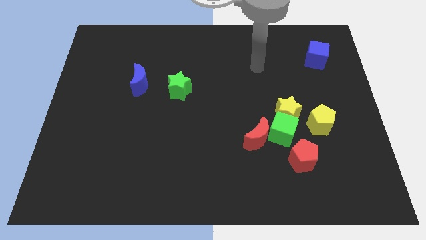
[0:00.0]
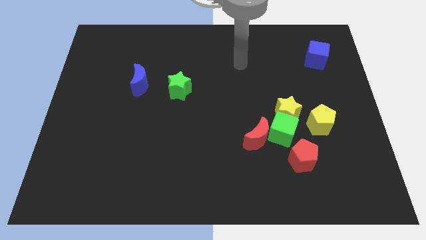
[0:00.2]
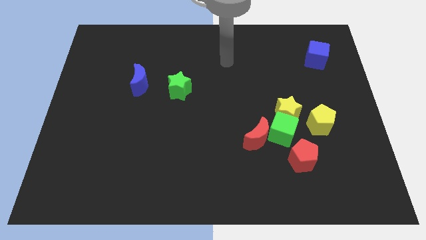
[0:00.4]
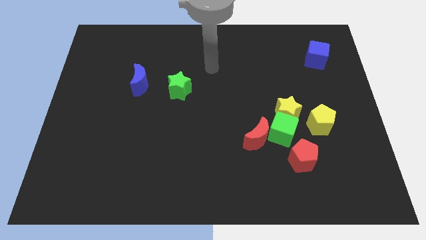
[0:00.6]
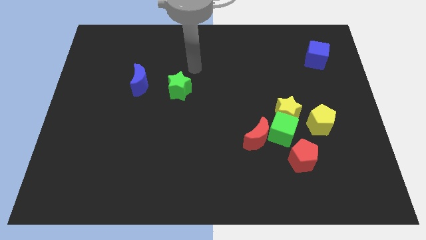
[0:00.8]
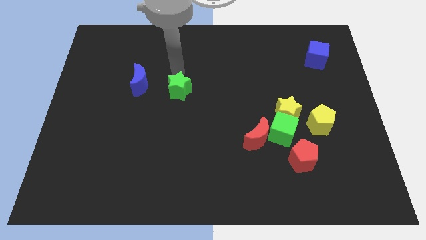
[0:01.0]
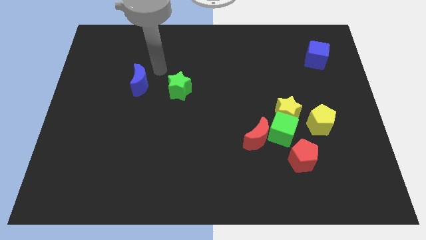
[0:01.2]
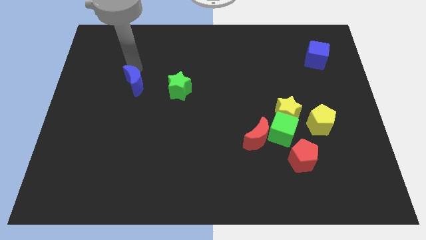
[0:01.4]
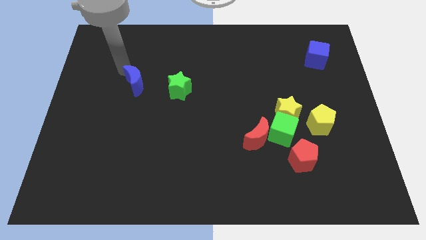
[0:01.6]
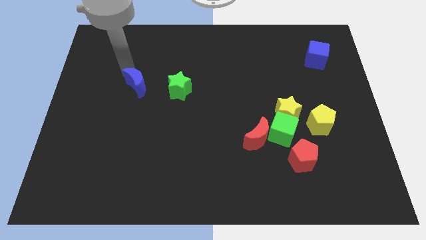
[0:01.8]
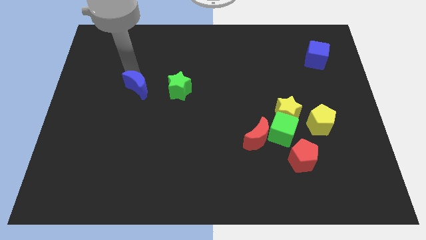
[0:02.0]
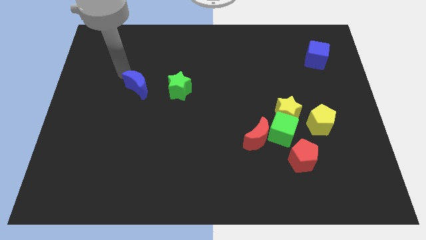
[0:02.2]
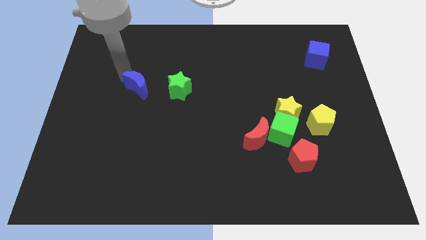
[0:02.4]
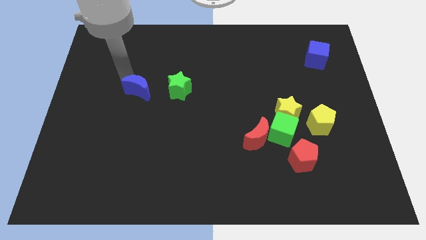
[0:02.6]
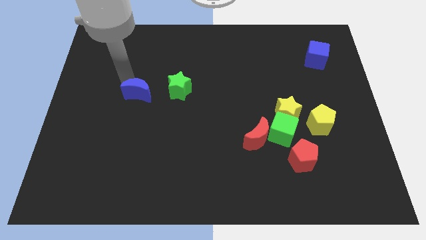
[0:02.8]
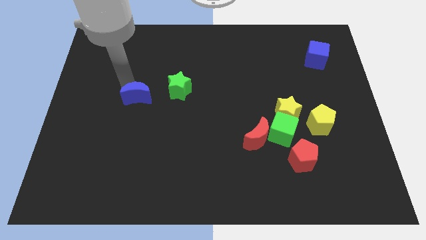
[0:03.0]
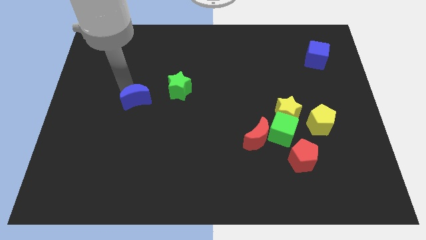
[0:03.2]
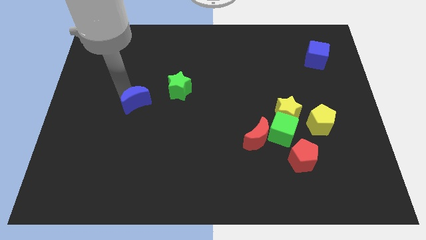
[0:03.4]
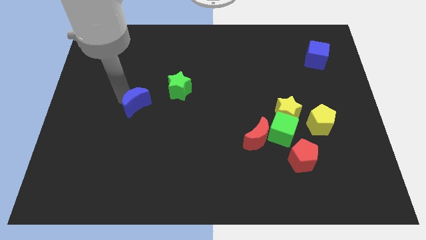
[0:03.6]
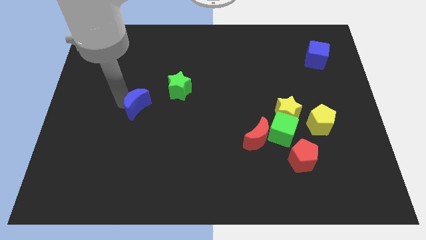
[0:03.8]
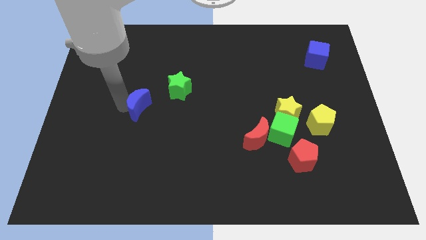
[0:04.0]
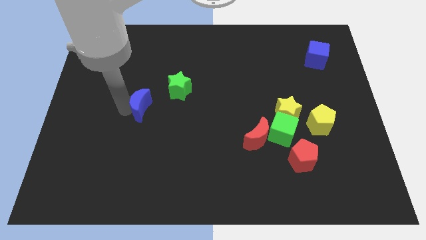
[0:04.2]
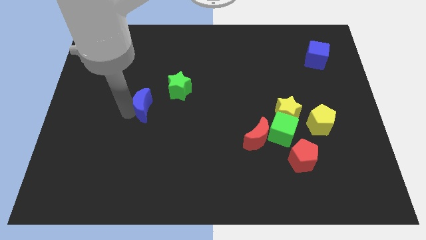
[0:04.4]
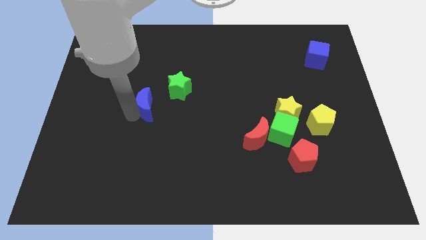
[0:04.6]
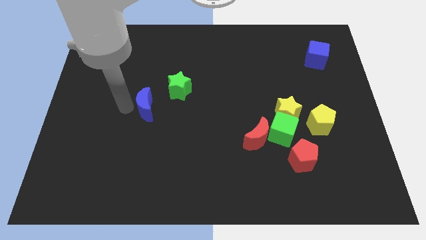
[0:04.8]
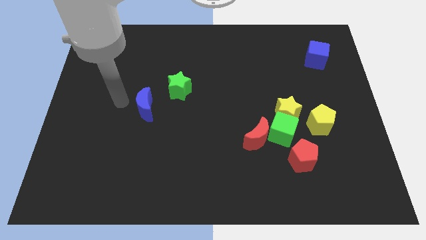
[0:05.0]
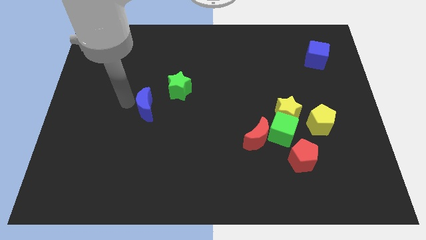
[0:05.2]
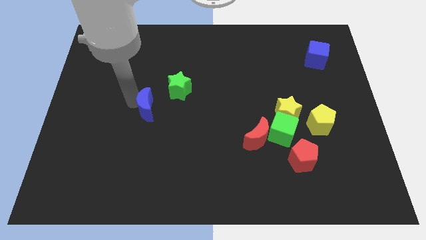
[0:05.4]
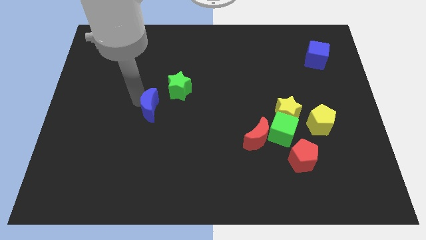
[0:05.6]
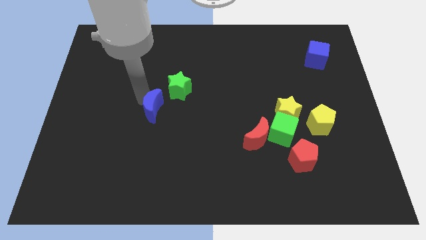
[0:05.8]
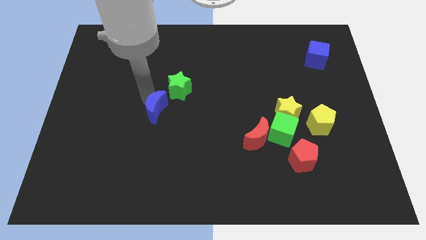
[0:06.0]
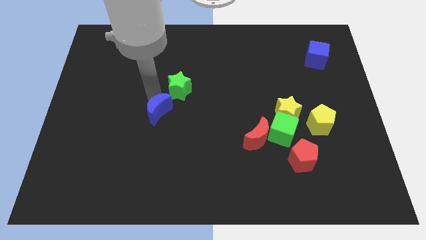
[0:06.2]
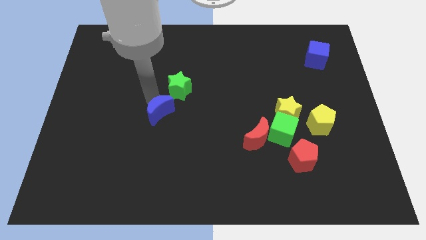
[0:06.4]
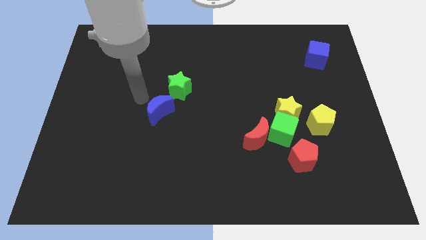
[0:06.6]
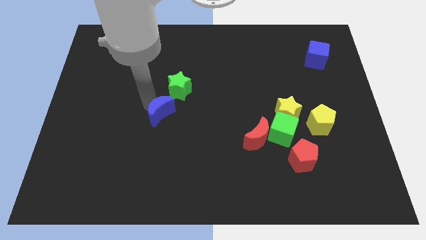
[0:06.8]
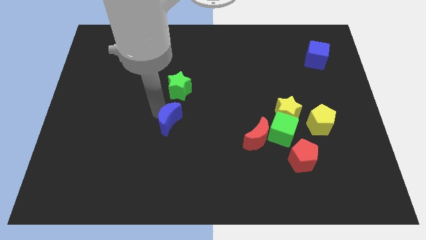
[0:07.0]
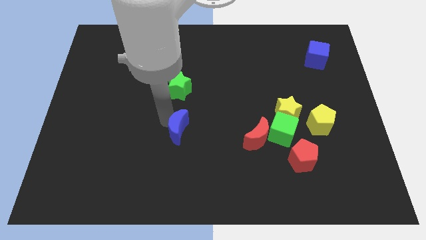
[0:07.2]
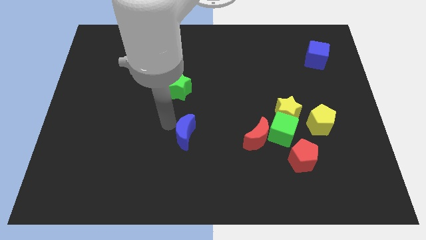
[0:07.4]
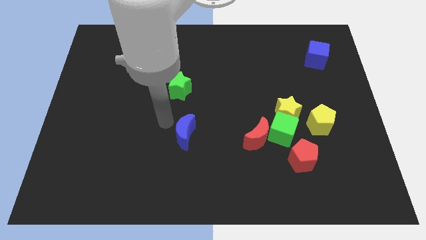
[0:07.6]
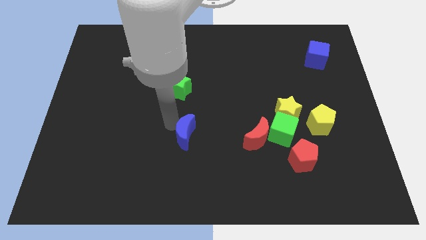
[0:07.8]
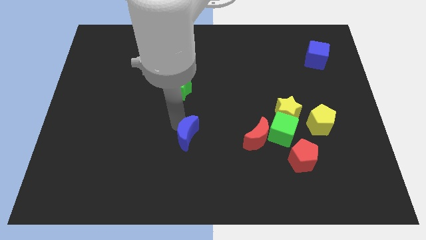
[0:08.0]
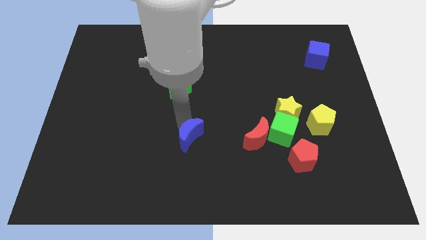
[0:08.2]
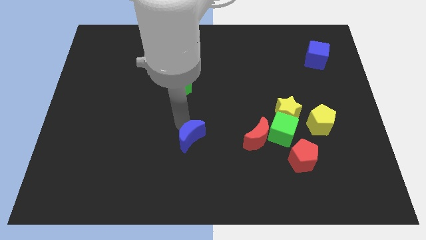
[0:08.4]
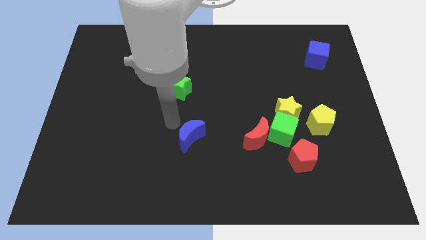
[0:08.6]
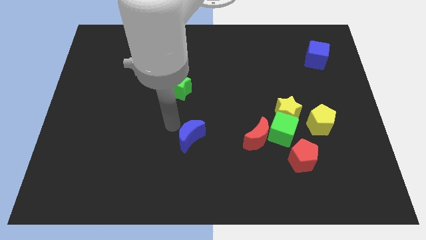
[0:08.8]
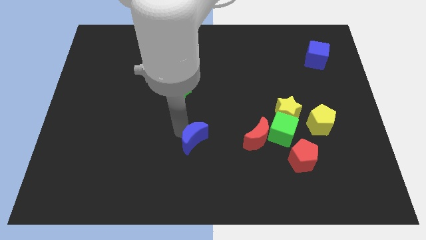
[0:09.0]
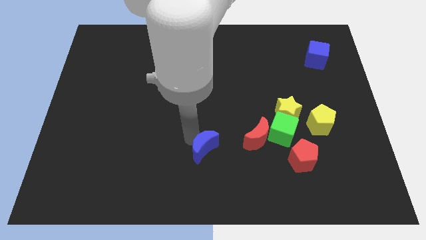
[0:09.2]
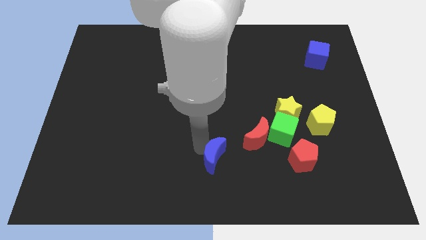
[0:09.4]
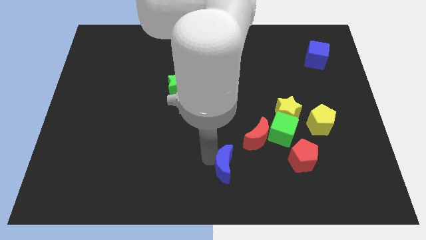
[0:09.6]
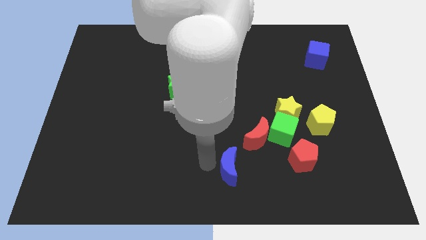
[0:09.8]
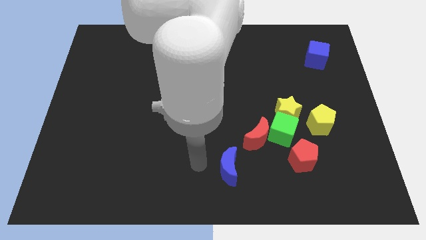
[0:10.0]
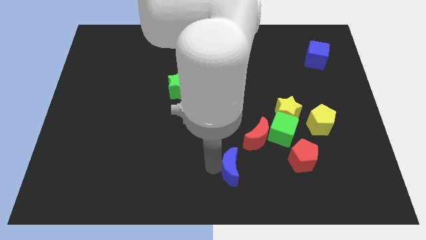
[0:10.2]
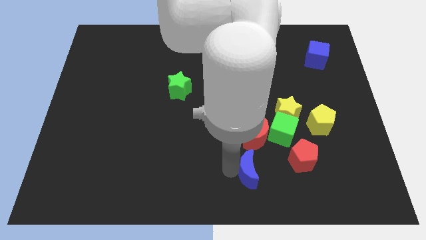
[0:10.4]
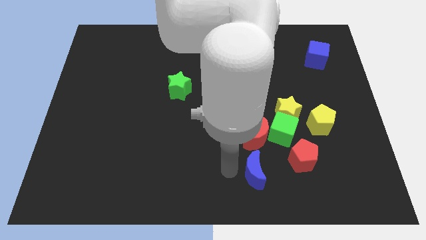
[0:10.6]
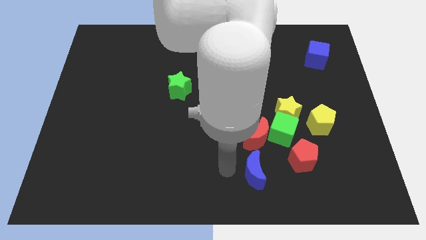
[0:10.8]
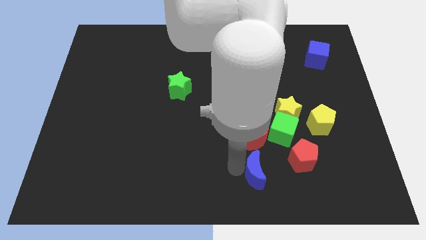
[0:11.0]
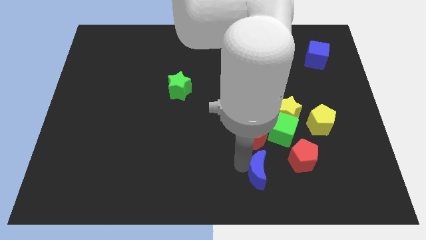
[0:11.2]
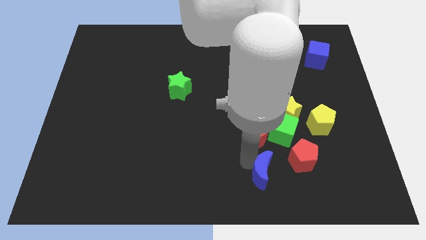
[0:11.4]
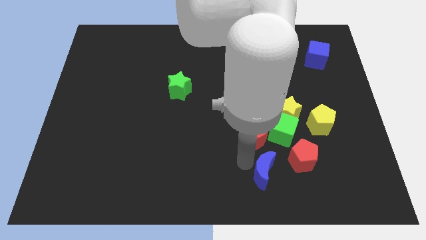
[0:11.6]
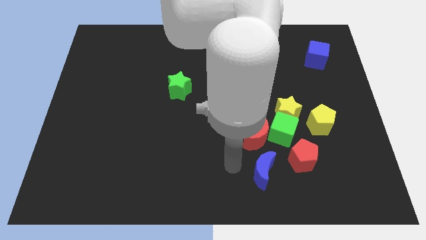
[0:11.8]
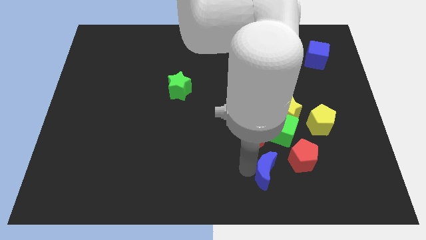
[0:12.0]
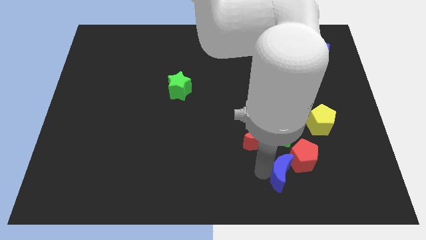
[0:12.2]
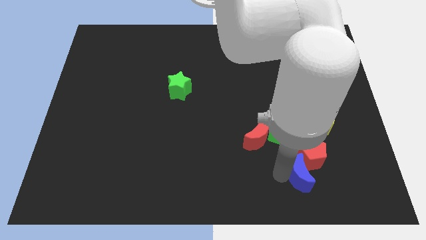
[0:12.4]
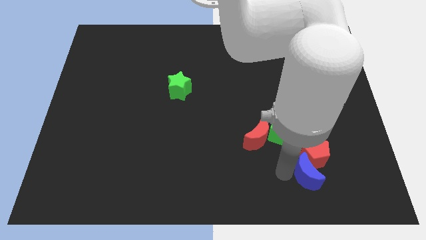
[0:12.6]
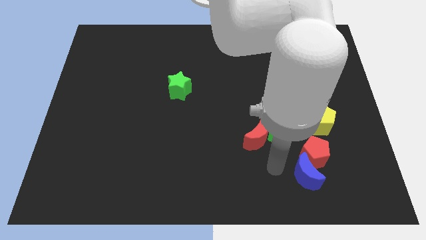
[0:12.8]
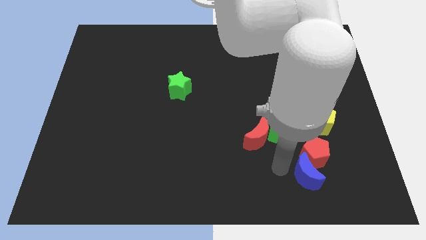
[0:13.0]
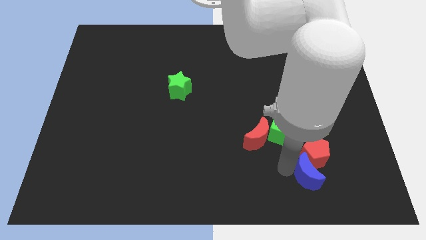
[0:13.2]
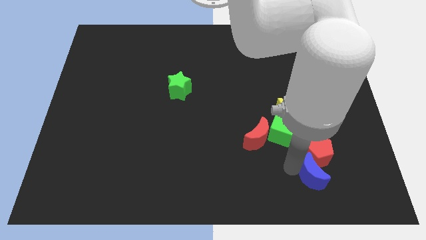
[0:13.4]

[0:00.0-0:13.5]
move the blue moon to the bottom of the yellow pentagon

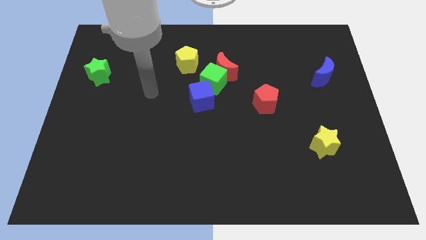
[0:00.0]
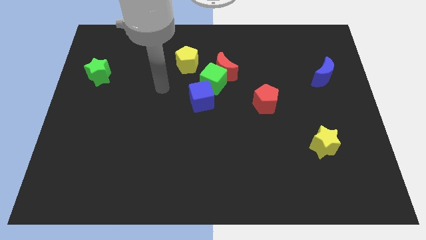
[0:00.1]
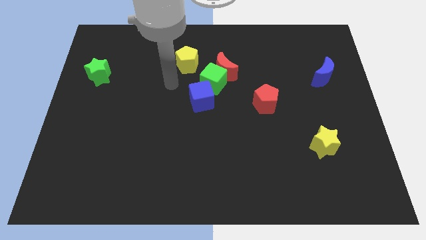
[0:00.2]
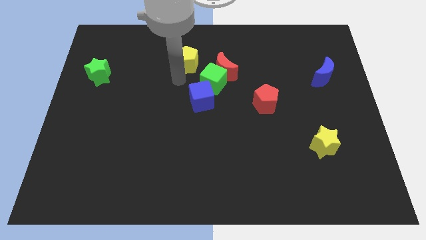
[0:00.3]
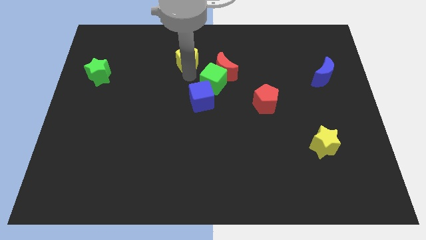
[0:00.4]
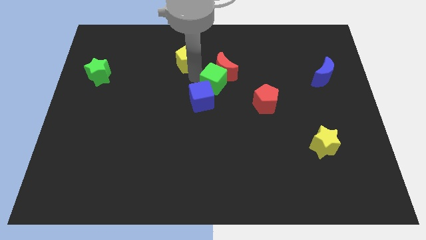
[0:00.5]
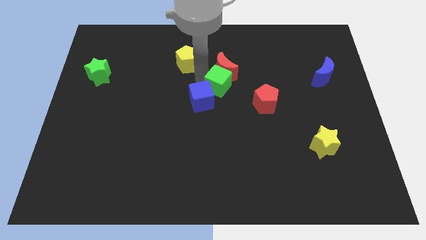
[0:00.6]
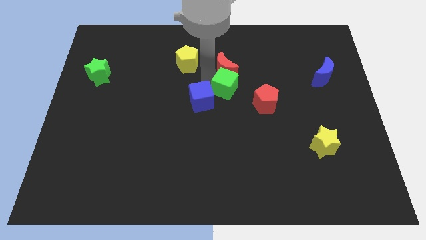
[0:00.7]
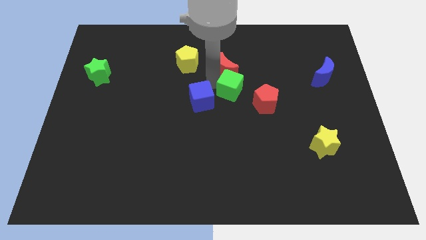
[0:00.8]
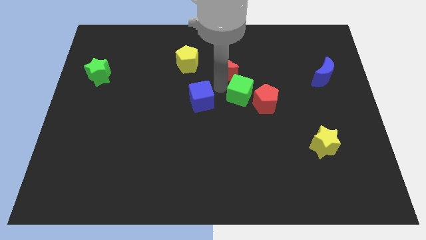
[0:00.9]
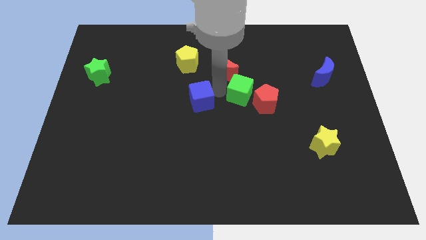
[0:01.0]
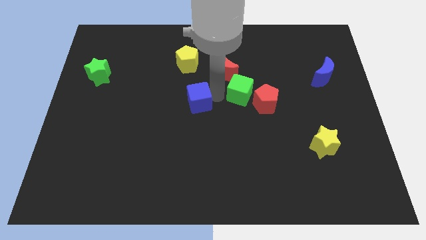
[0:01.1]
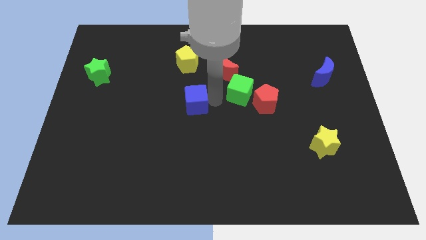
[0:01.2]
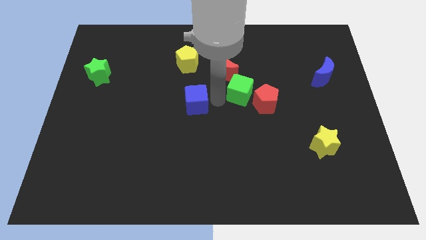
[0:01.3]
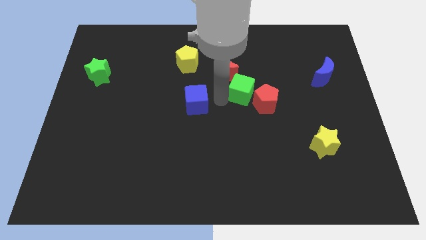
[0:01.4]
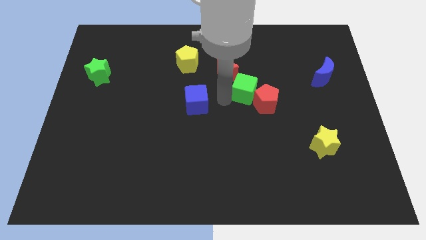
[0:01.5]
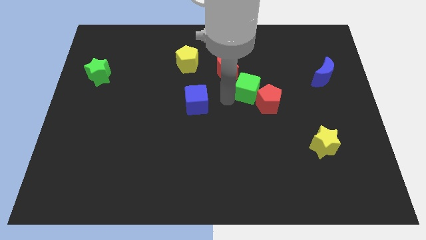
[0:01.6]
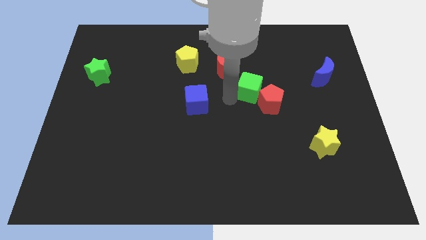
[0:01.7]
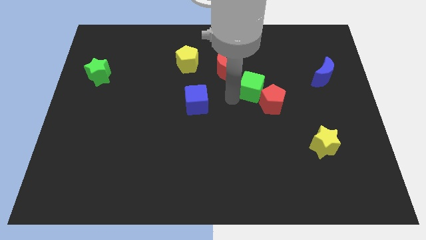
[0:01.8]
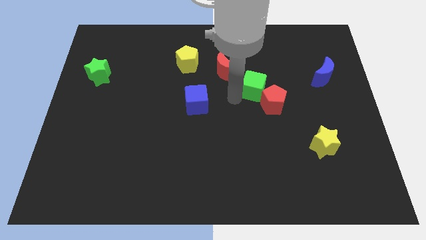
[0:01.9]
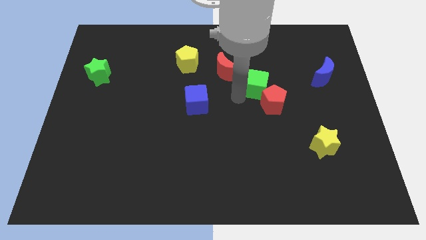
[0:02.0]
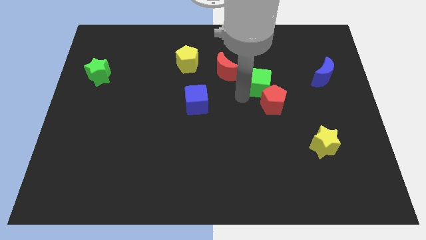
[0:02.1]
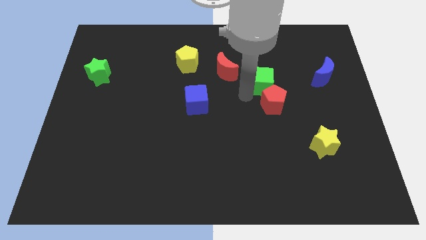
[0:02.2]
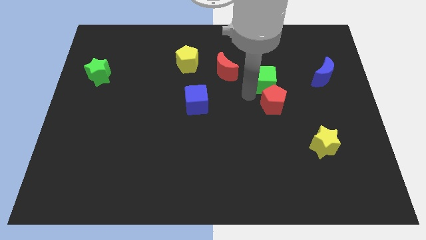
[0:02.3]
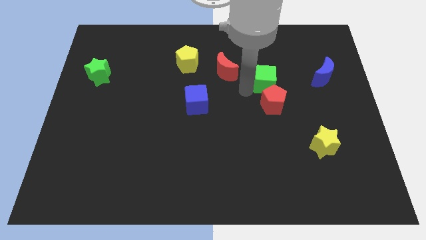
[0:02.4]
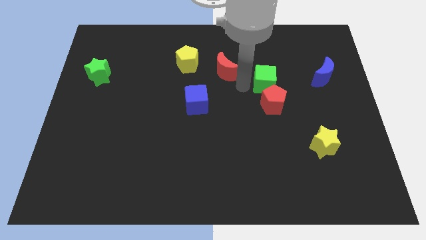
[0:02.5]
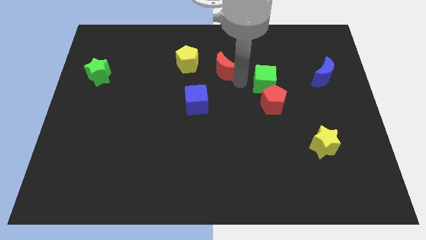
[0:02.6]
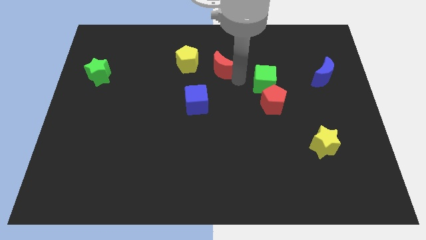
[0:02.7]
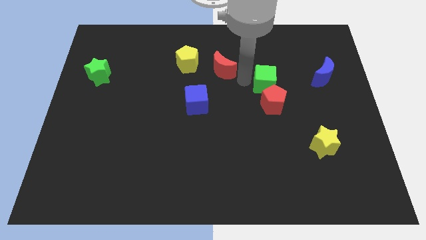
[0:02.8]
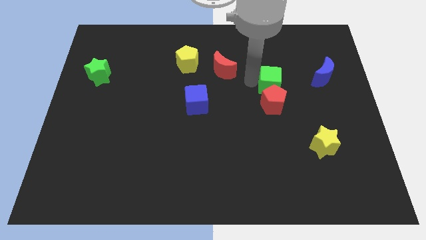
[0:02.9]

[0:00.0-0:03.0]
slide the green cube to the top right of the red pentagon
